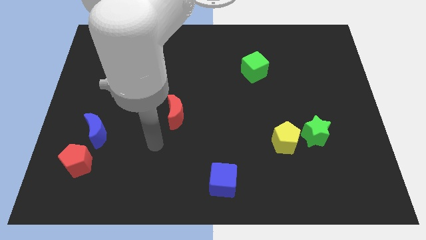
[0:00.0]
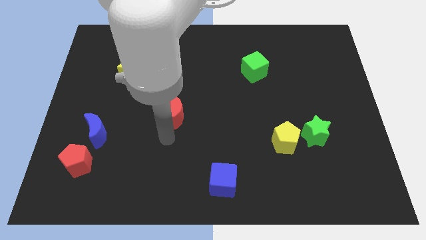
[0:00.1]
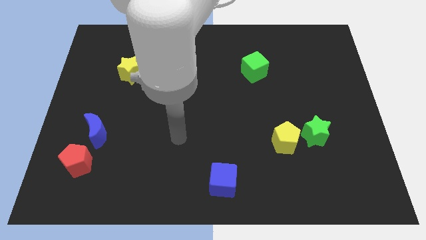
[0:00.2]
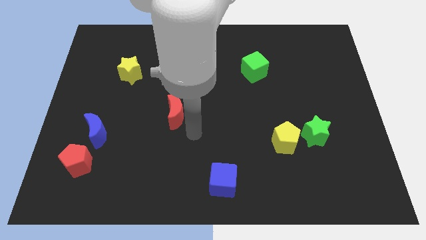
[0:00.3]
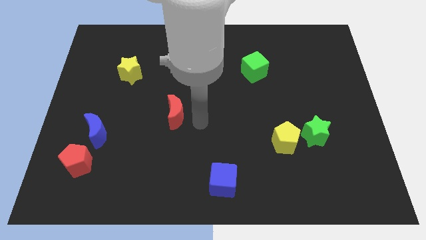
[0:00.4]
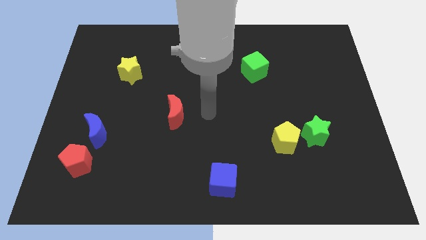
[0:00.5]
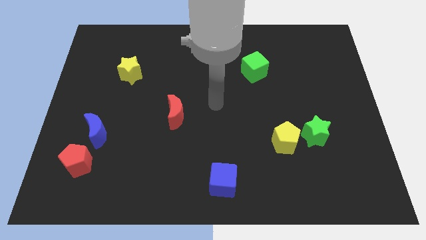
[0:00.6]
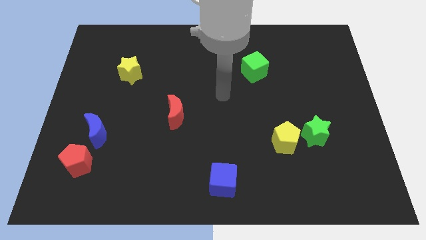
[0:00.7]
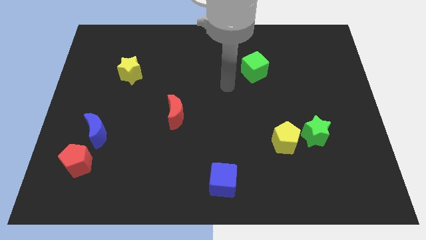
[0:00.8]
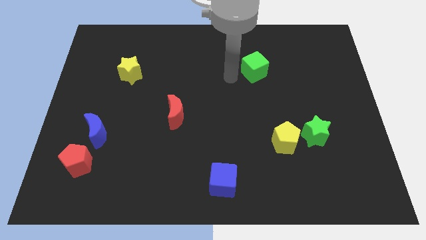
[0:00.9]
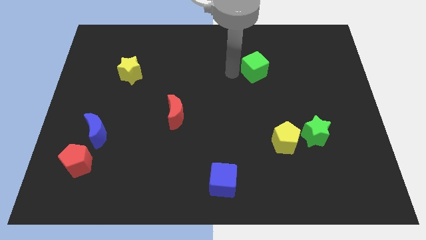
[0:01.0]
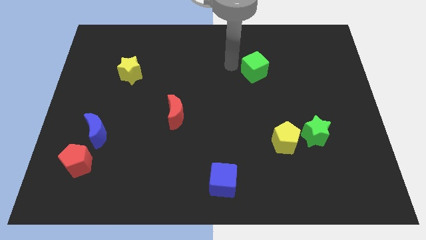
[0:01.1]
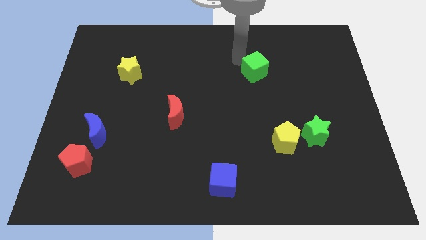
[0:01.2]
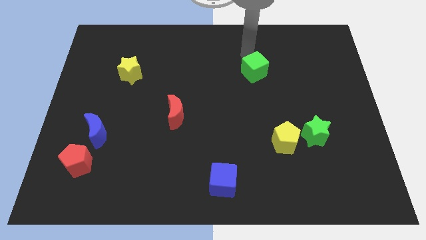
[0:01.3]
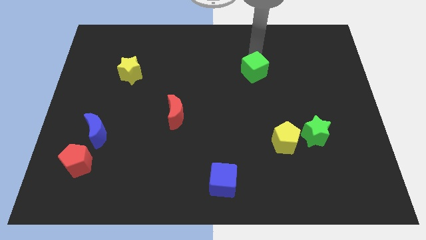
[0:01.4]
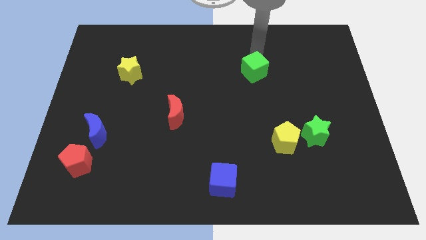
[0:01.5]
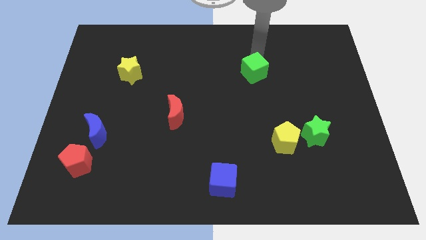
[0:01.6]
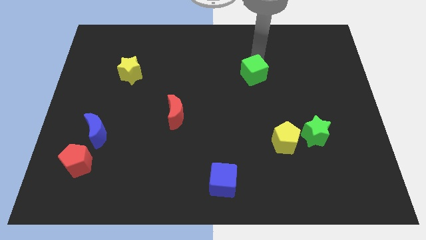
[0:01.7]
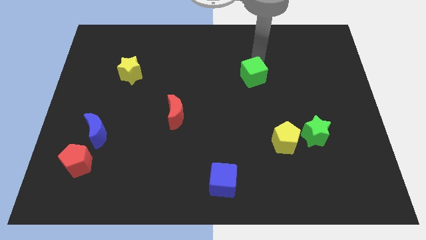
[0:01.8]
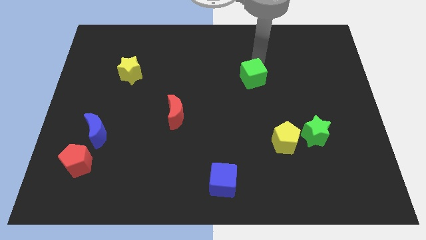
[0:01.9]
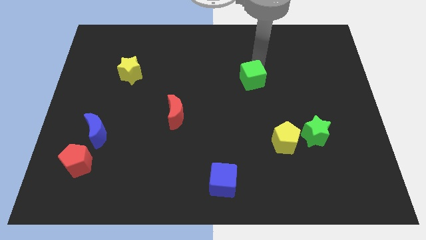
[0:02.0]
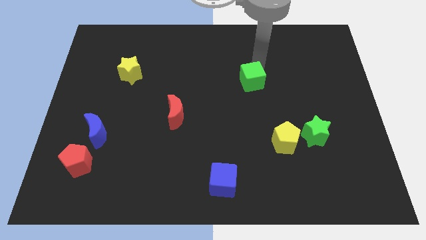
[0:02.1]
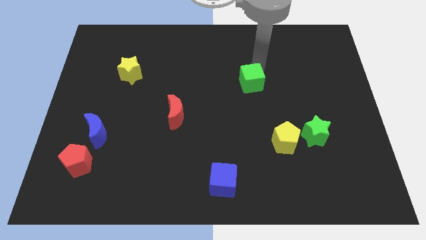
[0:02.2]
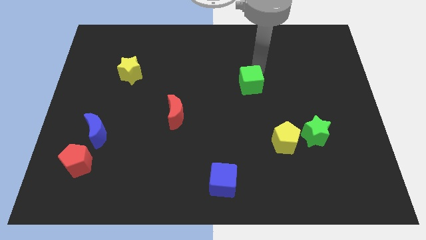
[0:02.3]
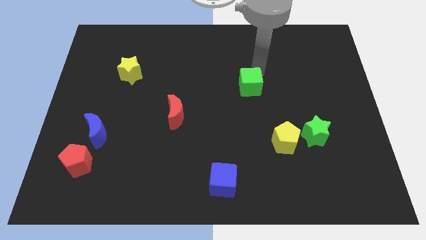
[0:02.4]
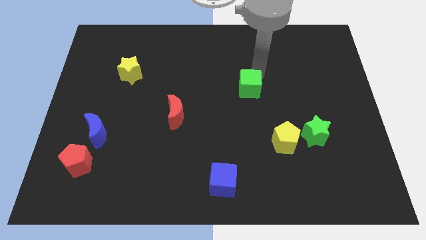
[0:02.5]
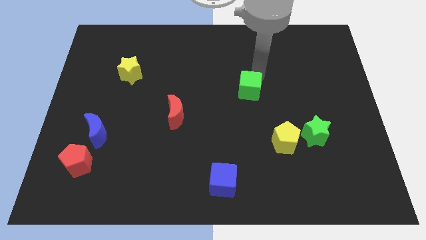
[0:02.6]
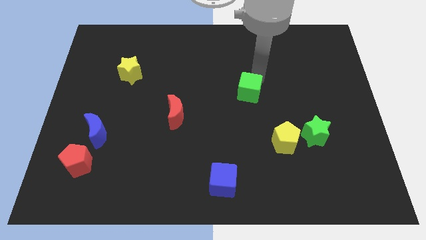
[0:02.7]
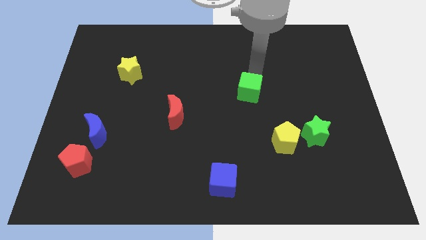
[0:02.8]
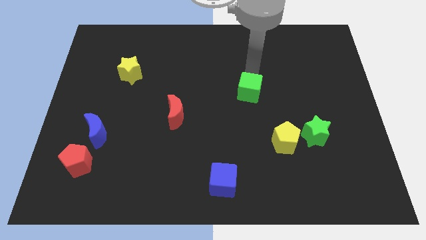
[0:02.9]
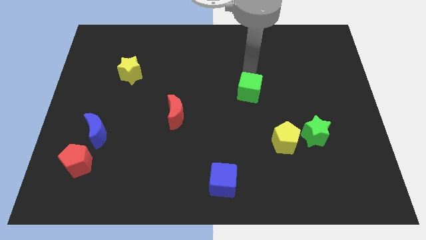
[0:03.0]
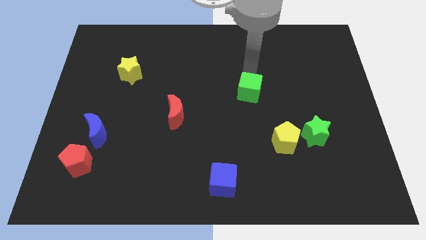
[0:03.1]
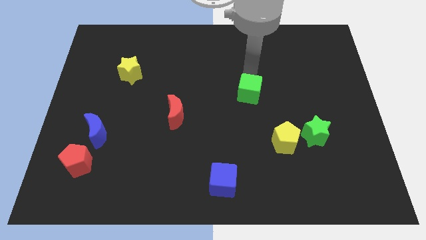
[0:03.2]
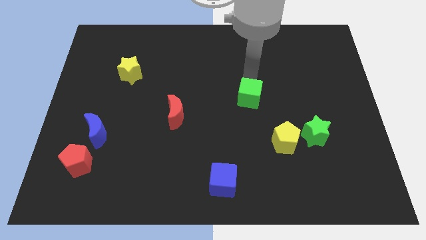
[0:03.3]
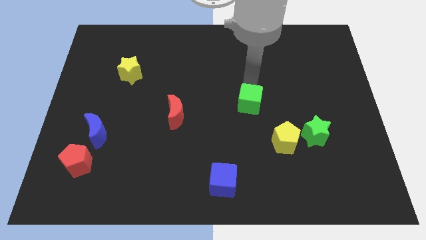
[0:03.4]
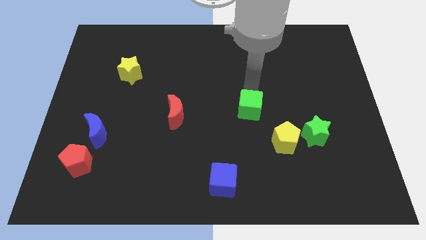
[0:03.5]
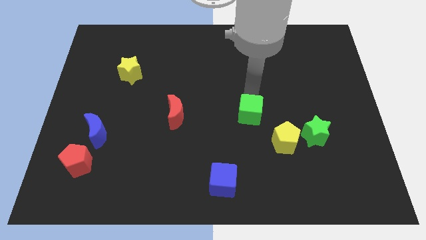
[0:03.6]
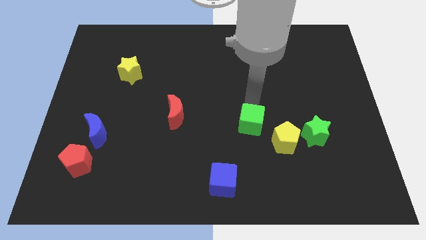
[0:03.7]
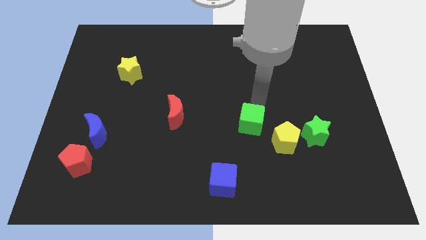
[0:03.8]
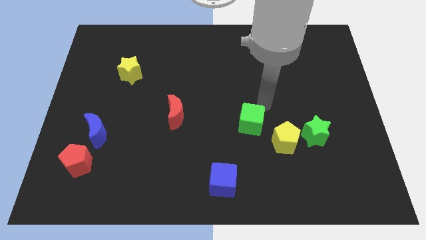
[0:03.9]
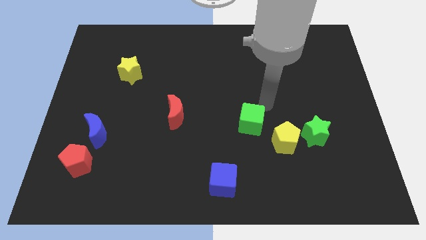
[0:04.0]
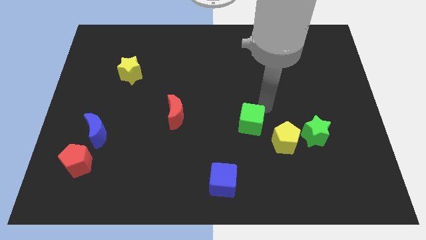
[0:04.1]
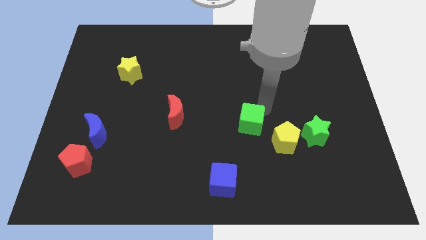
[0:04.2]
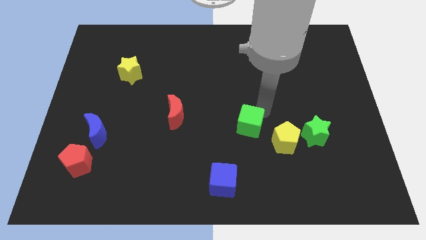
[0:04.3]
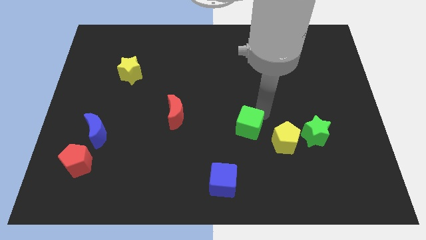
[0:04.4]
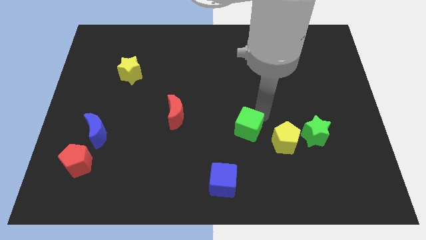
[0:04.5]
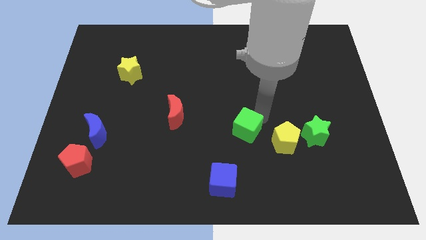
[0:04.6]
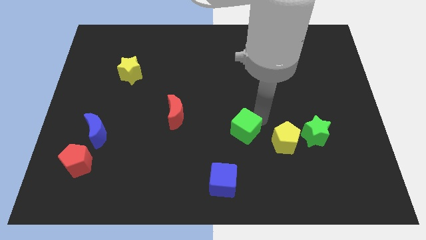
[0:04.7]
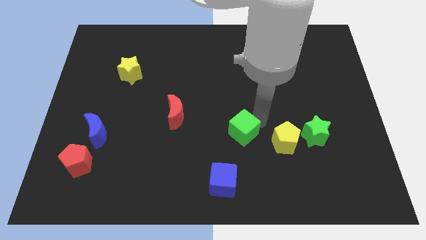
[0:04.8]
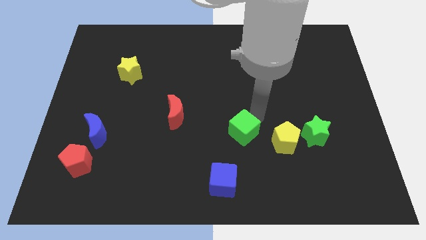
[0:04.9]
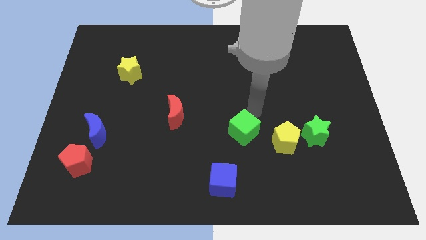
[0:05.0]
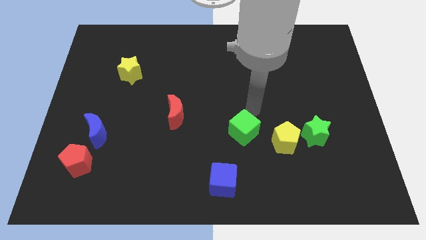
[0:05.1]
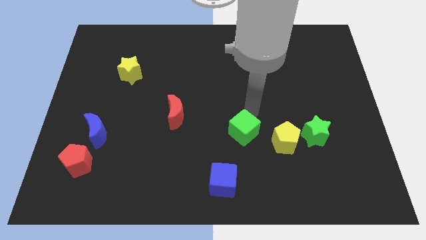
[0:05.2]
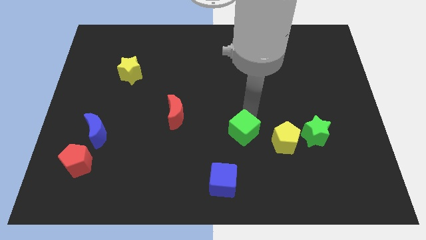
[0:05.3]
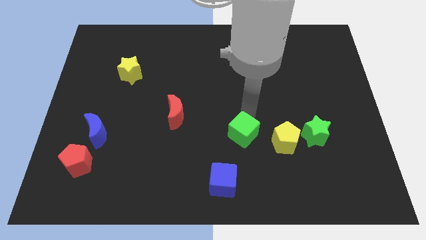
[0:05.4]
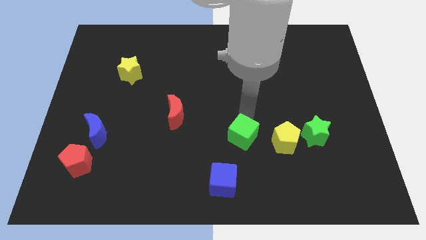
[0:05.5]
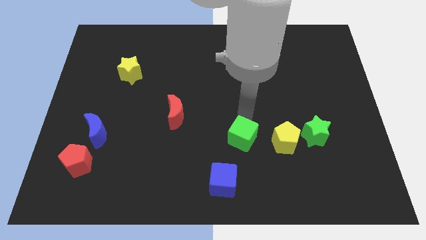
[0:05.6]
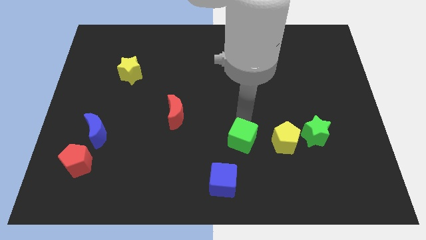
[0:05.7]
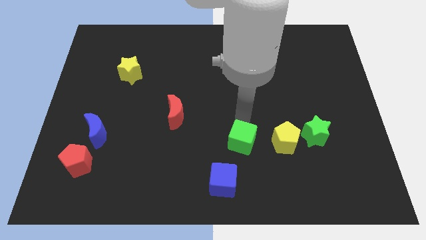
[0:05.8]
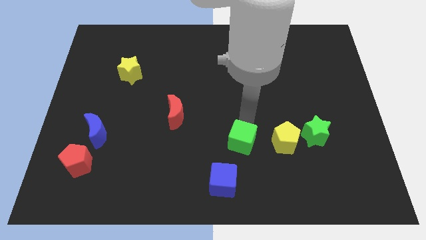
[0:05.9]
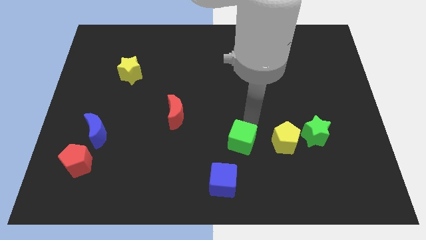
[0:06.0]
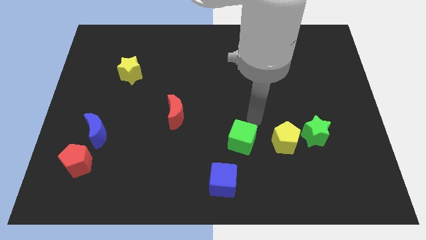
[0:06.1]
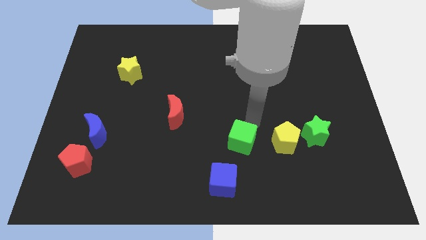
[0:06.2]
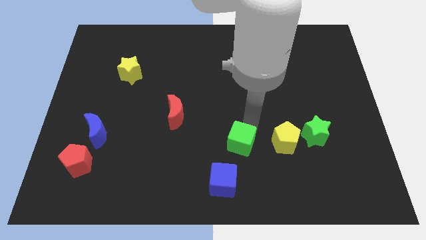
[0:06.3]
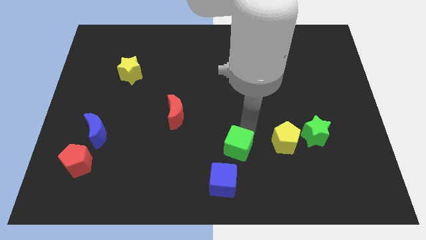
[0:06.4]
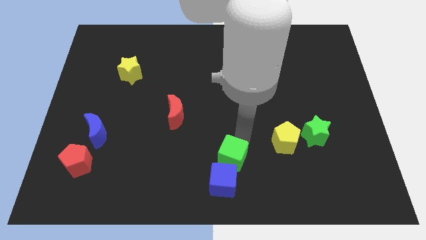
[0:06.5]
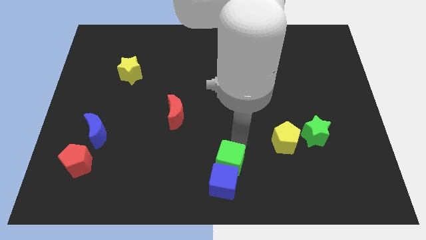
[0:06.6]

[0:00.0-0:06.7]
put the green cube close to the blue cube
